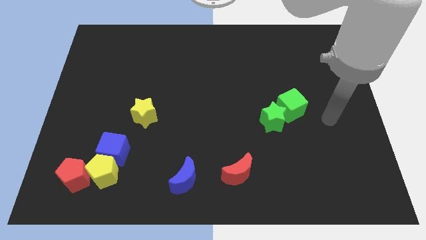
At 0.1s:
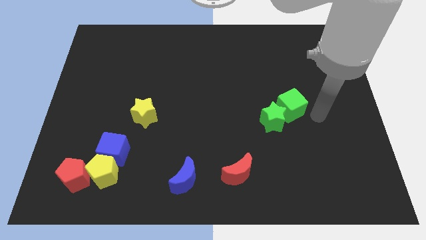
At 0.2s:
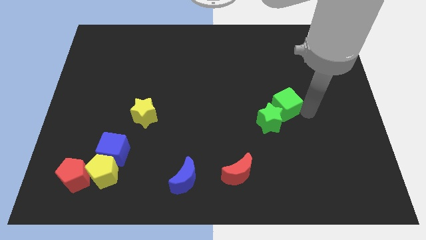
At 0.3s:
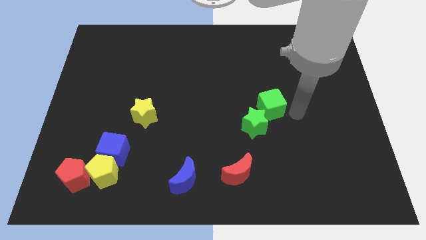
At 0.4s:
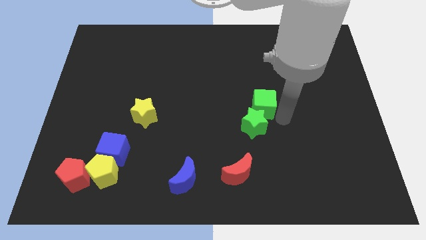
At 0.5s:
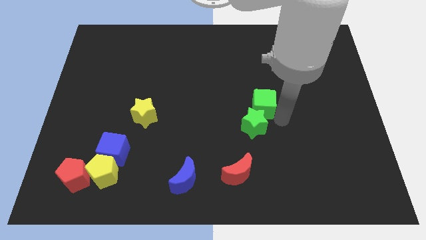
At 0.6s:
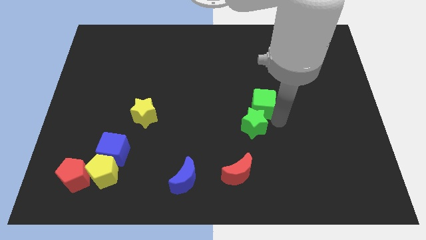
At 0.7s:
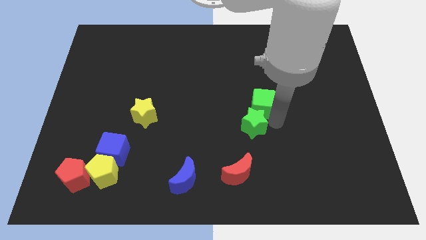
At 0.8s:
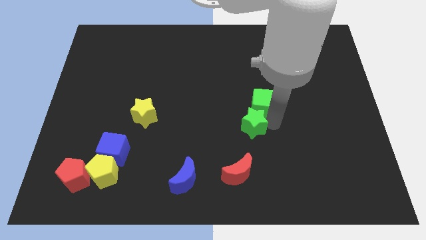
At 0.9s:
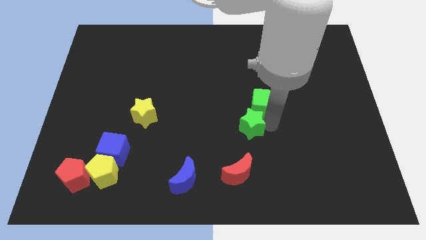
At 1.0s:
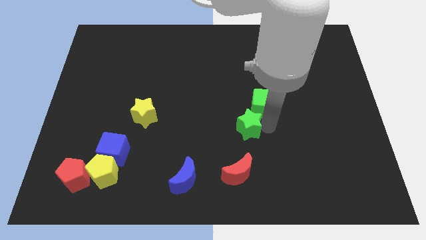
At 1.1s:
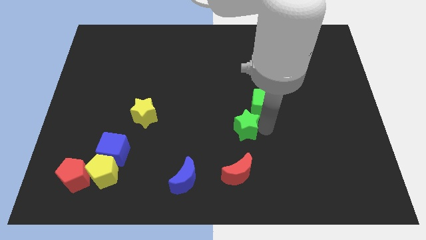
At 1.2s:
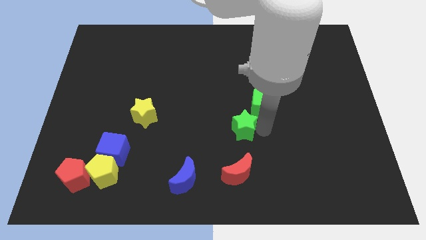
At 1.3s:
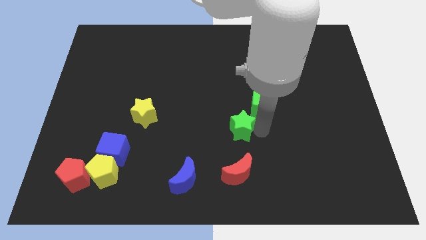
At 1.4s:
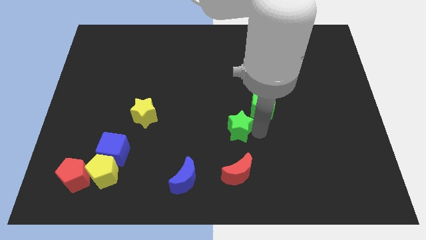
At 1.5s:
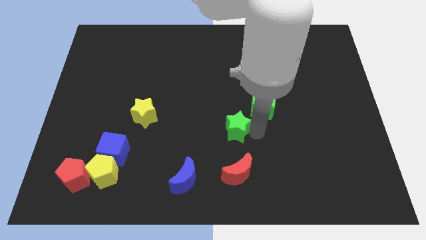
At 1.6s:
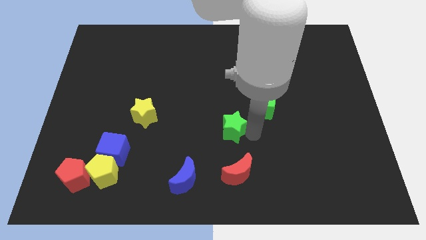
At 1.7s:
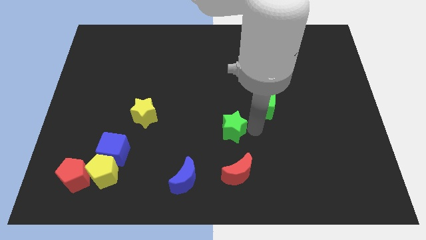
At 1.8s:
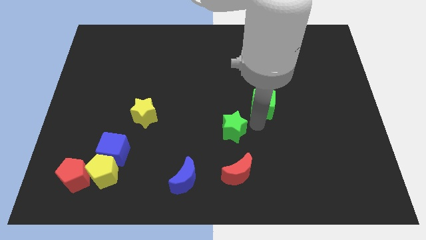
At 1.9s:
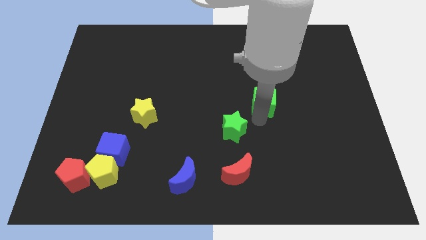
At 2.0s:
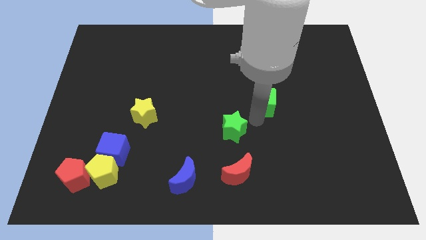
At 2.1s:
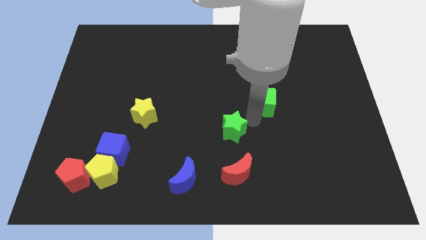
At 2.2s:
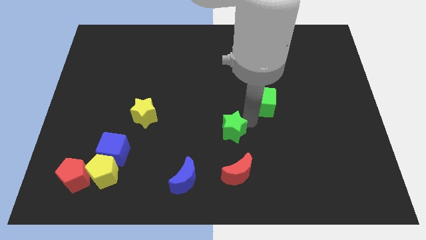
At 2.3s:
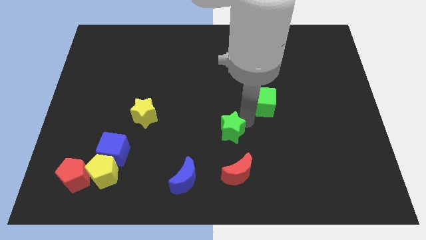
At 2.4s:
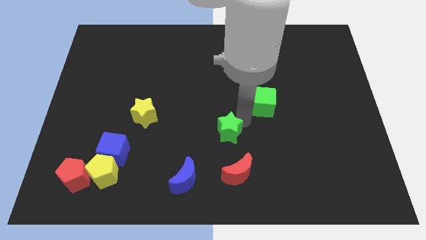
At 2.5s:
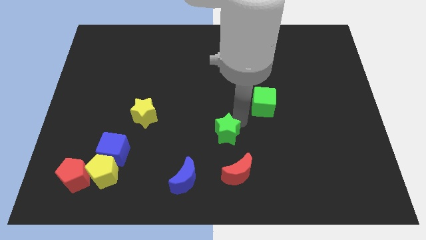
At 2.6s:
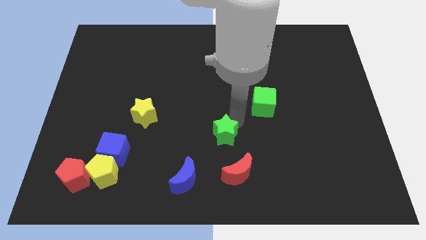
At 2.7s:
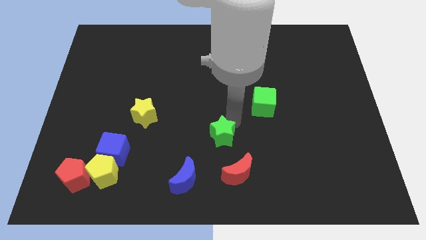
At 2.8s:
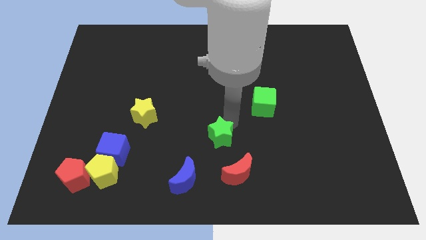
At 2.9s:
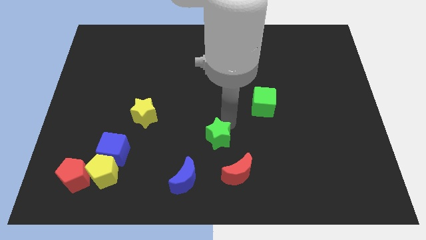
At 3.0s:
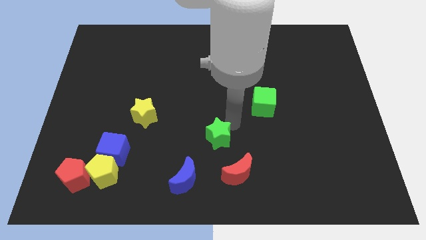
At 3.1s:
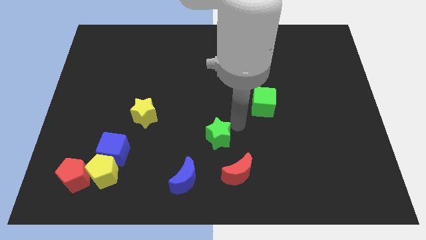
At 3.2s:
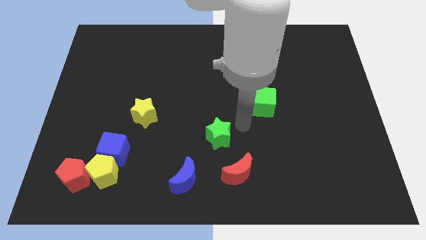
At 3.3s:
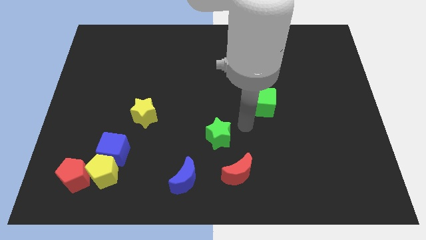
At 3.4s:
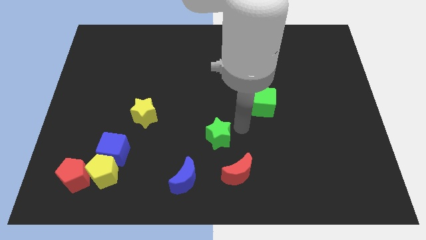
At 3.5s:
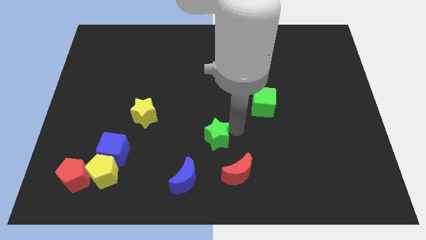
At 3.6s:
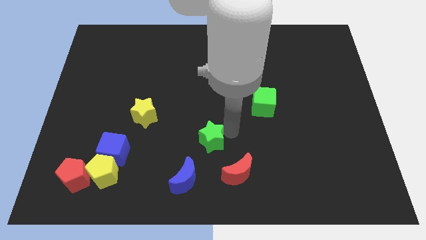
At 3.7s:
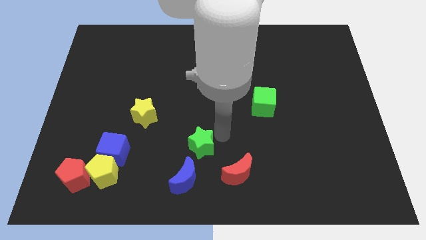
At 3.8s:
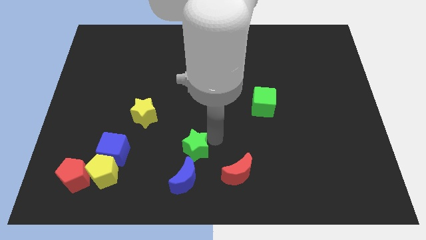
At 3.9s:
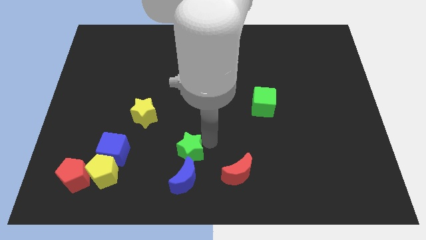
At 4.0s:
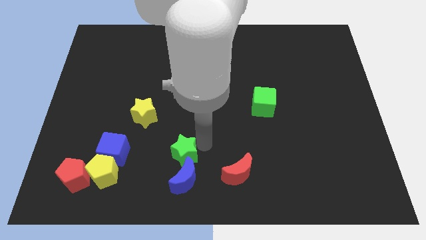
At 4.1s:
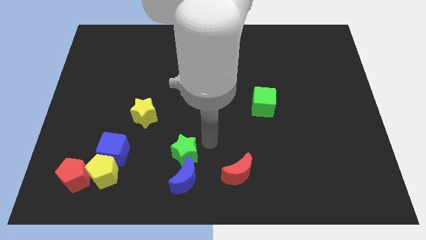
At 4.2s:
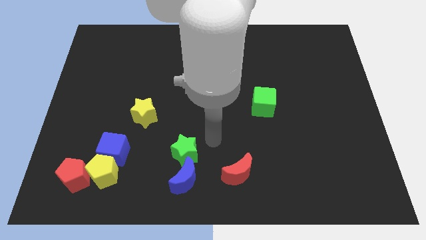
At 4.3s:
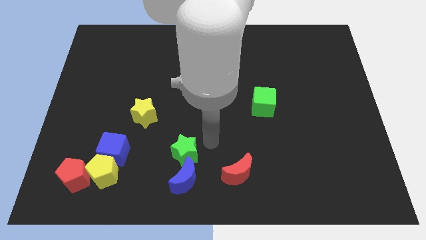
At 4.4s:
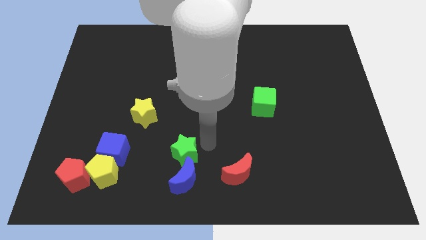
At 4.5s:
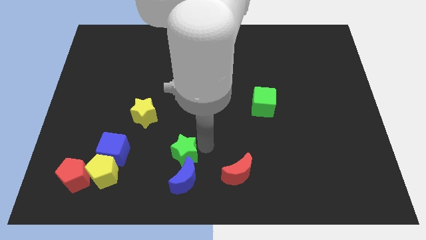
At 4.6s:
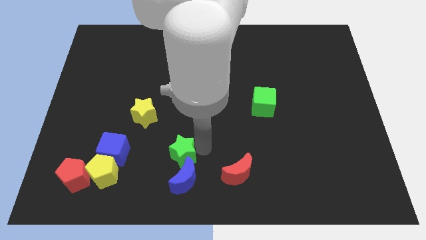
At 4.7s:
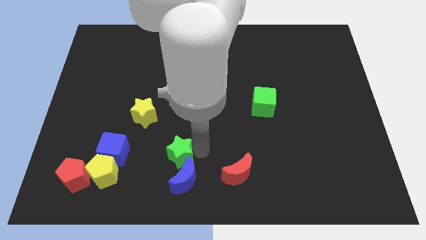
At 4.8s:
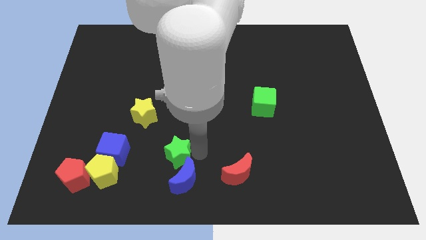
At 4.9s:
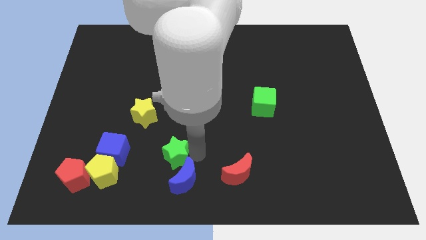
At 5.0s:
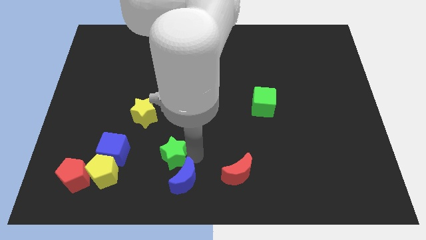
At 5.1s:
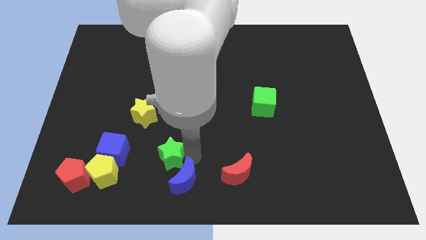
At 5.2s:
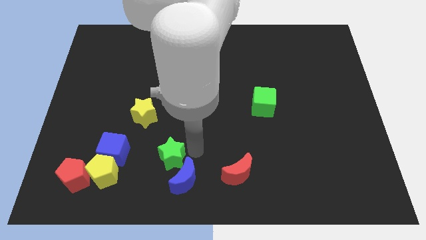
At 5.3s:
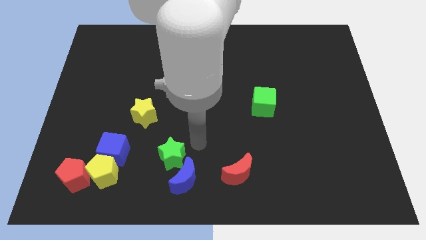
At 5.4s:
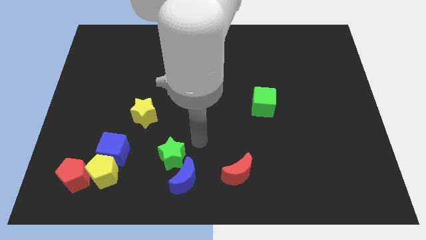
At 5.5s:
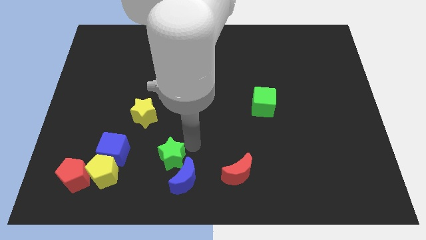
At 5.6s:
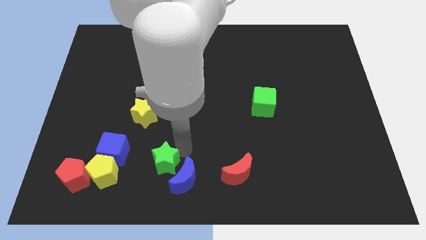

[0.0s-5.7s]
slide the green star just left of the blue moon

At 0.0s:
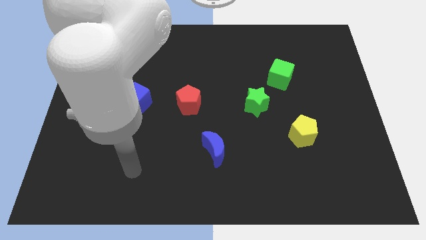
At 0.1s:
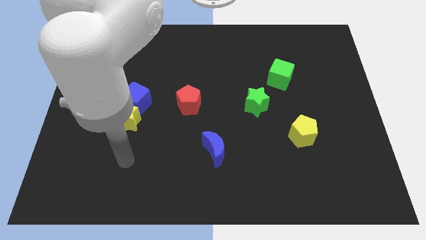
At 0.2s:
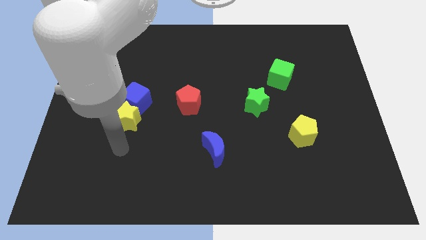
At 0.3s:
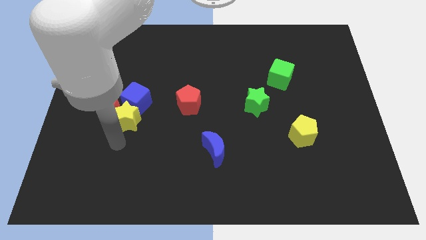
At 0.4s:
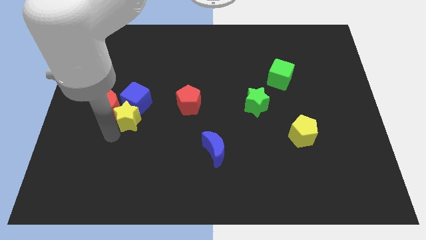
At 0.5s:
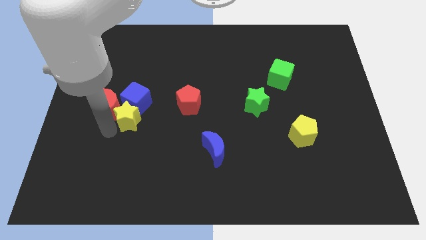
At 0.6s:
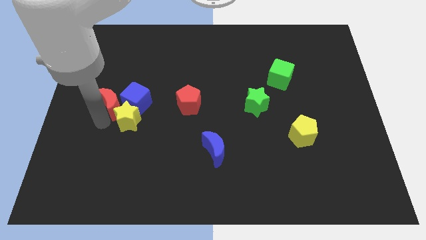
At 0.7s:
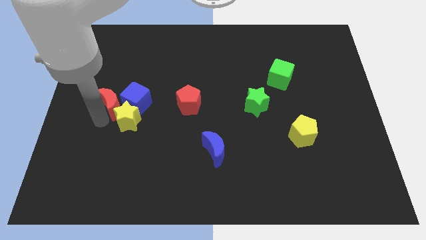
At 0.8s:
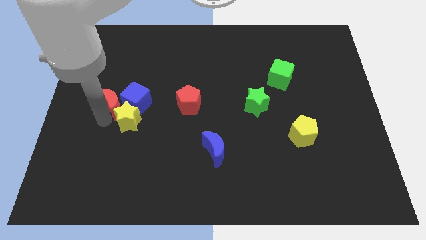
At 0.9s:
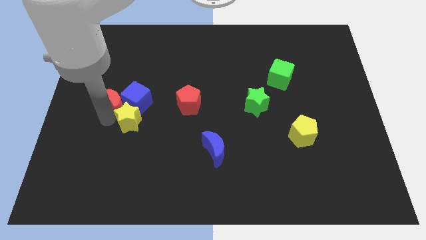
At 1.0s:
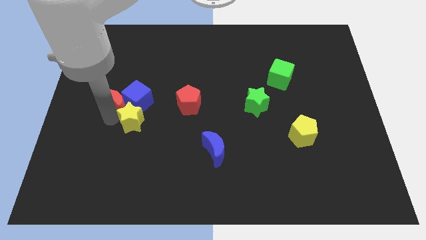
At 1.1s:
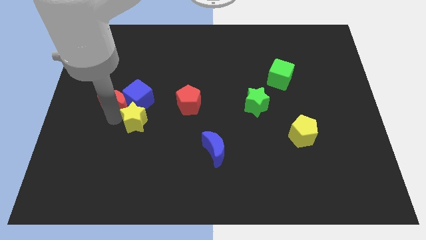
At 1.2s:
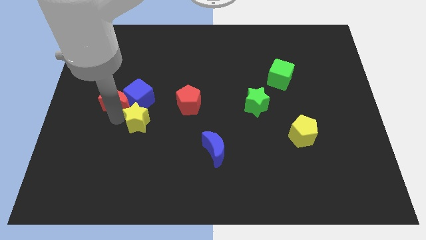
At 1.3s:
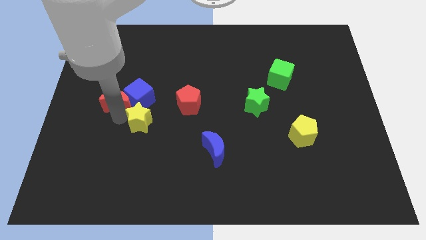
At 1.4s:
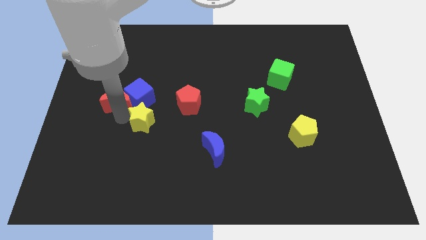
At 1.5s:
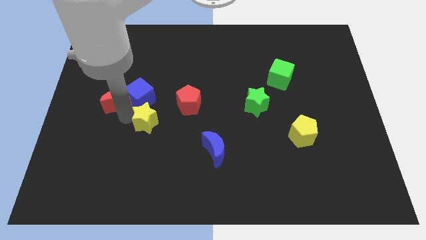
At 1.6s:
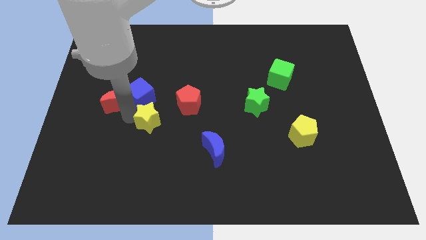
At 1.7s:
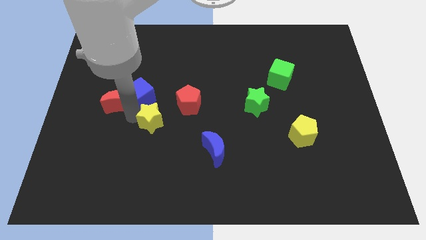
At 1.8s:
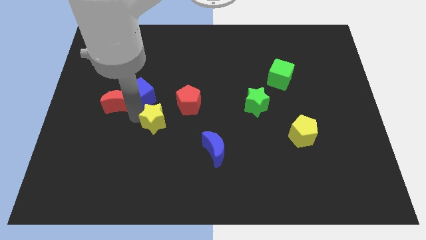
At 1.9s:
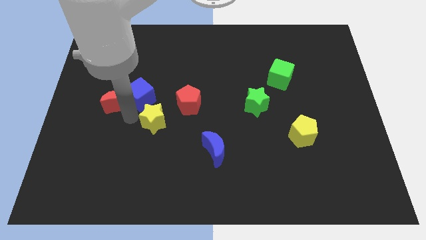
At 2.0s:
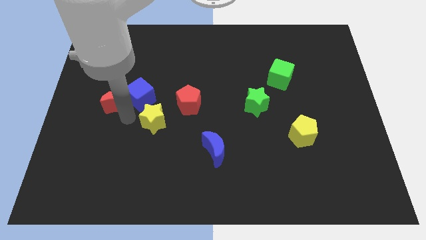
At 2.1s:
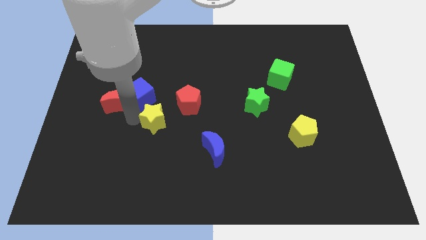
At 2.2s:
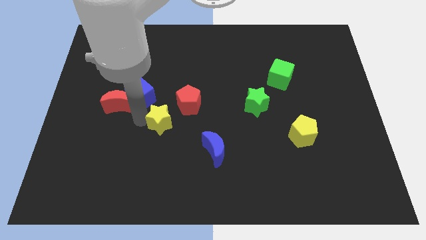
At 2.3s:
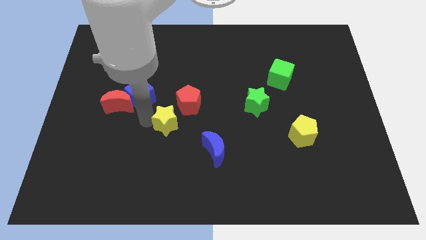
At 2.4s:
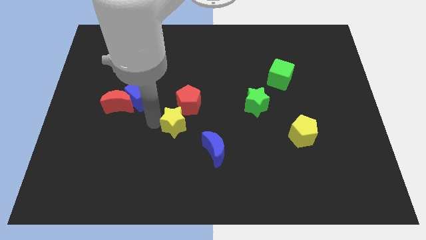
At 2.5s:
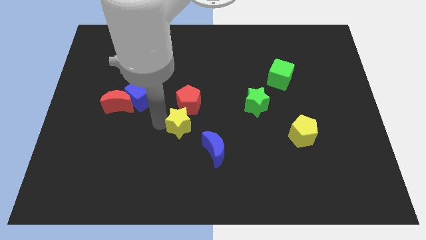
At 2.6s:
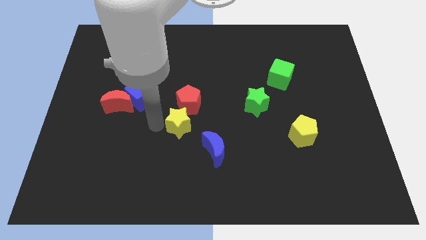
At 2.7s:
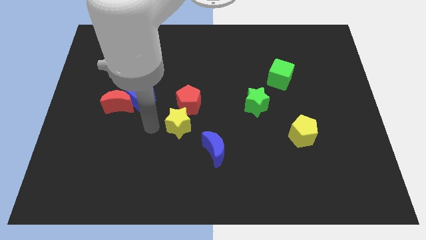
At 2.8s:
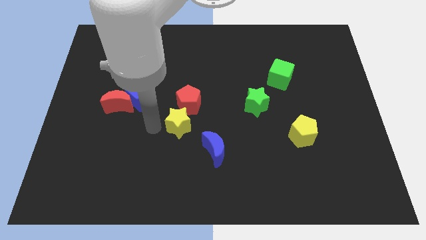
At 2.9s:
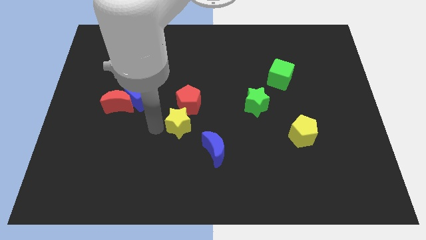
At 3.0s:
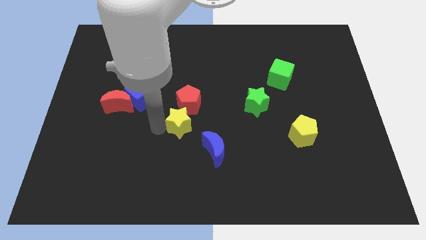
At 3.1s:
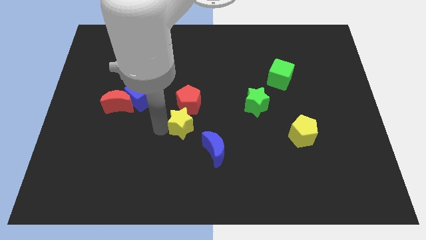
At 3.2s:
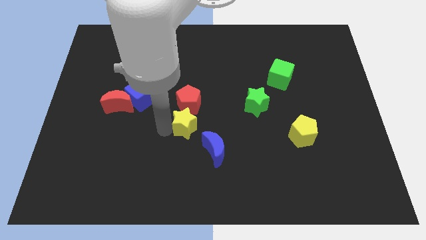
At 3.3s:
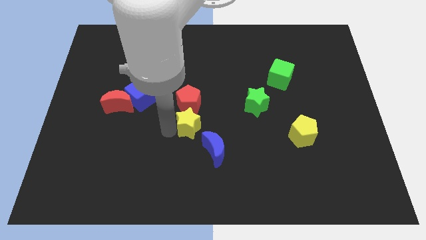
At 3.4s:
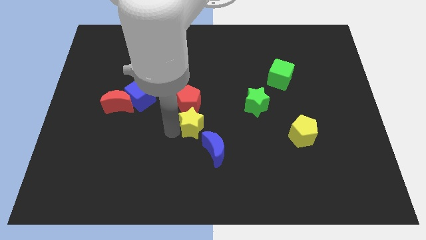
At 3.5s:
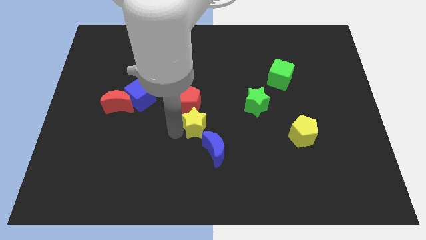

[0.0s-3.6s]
put the yellow star above the blue moon
